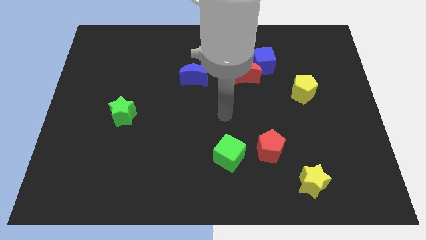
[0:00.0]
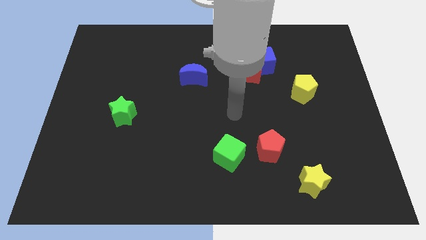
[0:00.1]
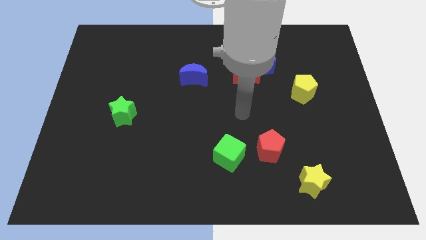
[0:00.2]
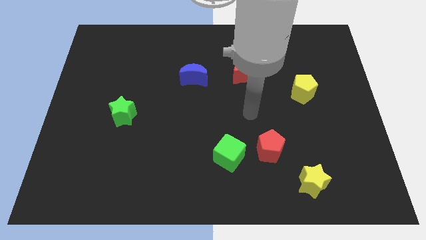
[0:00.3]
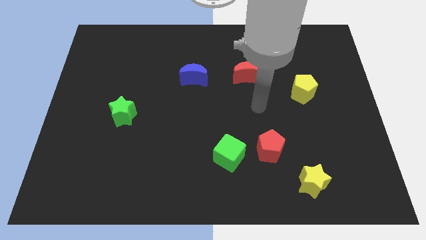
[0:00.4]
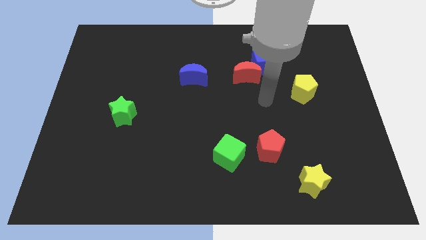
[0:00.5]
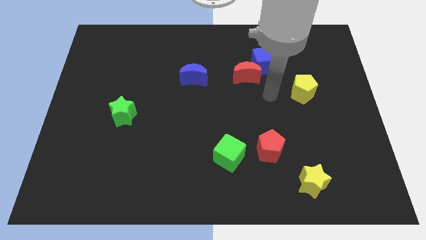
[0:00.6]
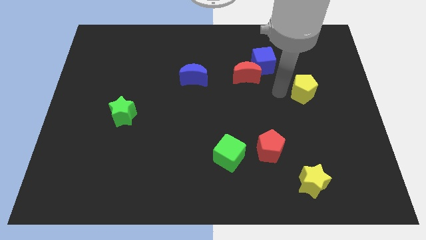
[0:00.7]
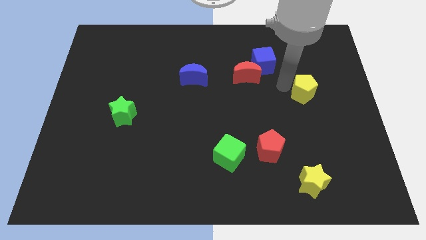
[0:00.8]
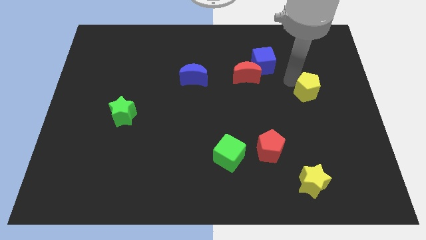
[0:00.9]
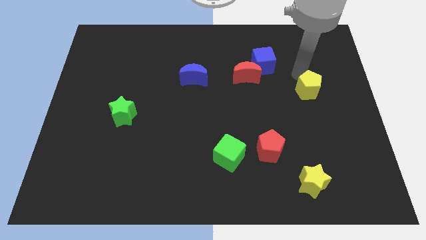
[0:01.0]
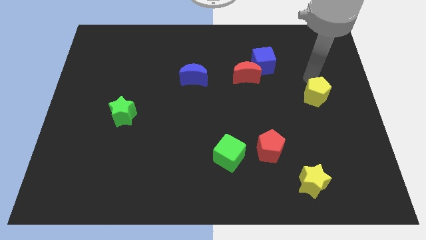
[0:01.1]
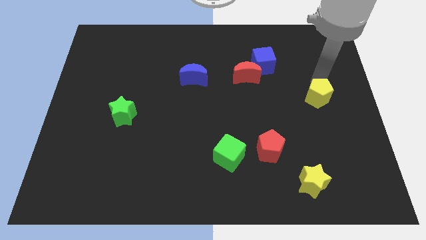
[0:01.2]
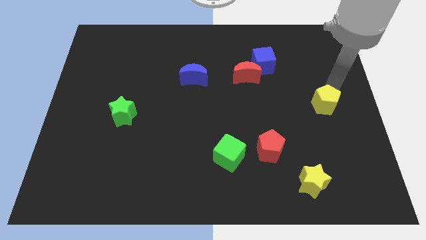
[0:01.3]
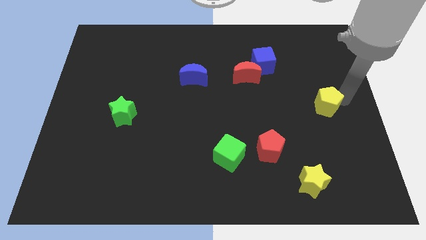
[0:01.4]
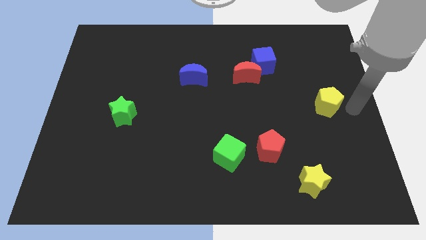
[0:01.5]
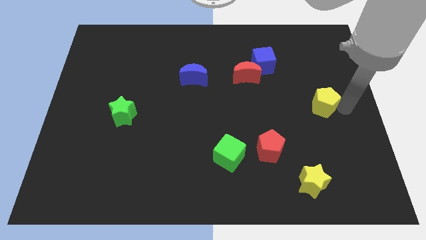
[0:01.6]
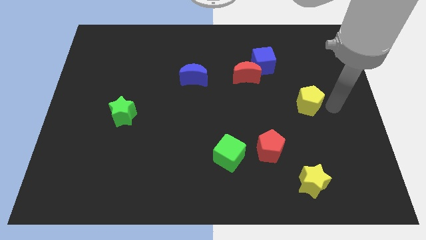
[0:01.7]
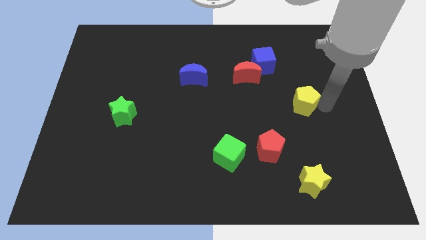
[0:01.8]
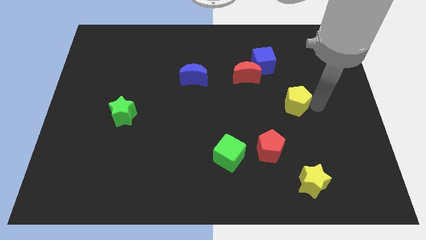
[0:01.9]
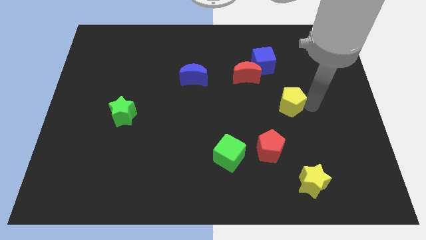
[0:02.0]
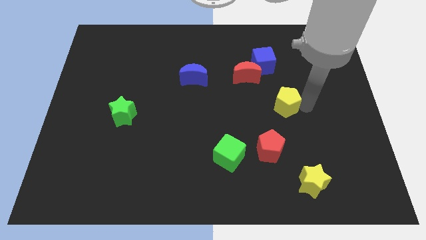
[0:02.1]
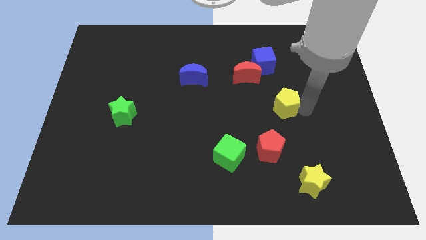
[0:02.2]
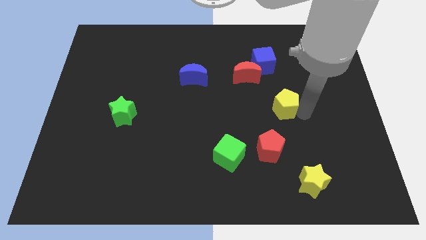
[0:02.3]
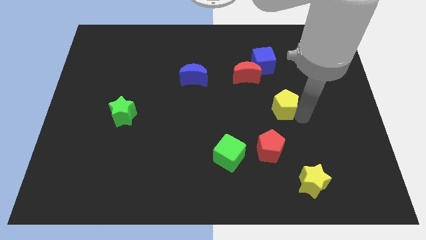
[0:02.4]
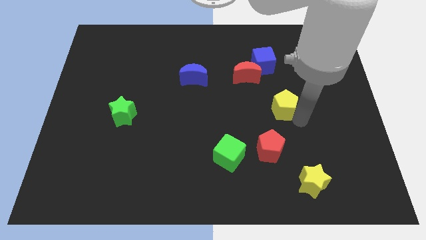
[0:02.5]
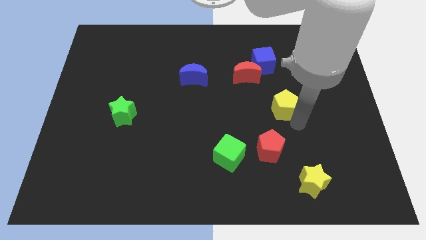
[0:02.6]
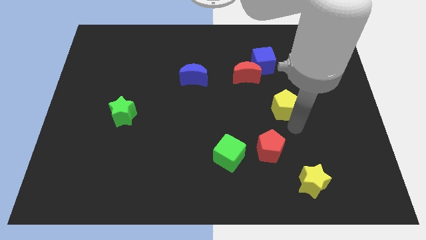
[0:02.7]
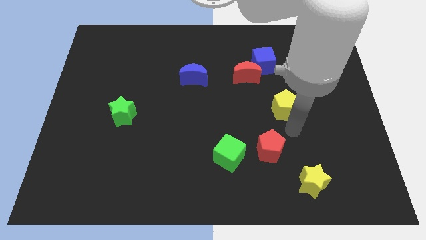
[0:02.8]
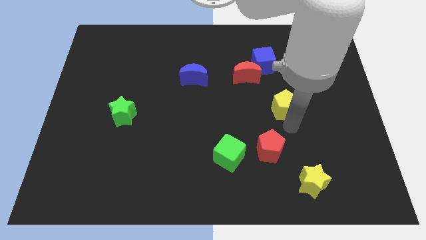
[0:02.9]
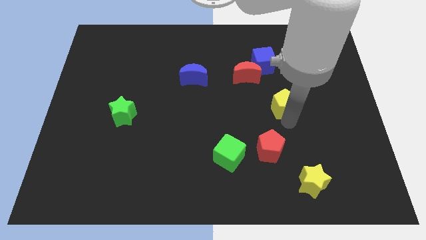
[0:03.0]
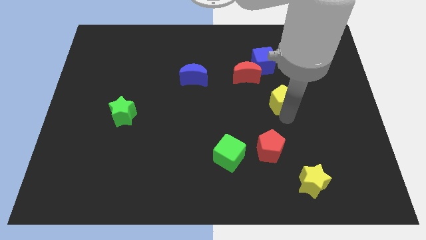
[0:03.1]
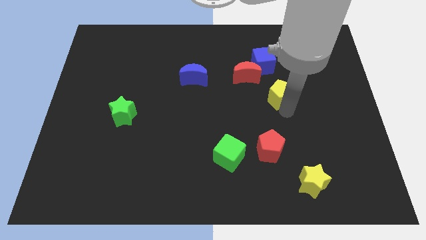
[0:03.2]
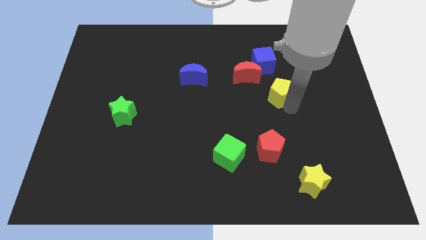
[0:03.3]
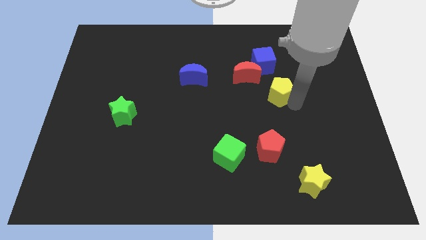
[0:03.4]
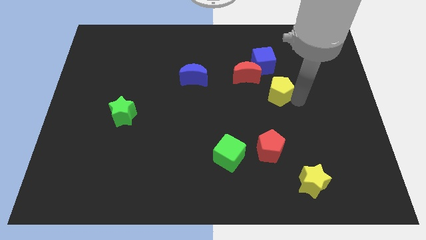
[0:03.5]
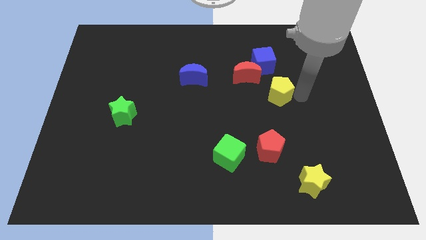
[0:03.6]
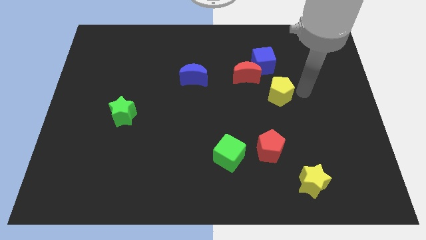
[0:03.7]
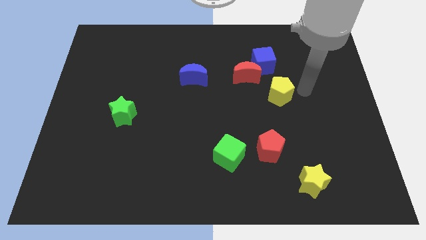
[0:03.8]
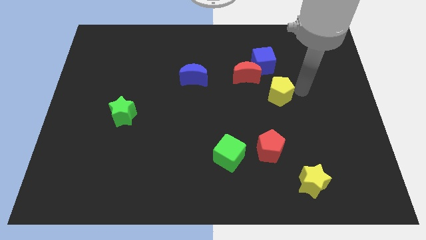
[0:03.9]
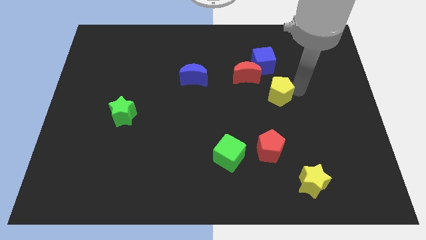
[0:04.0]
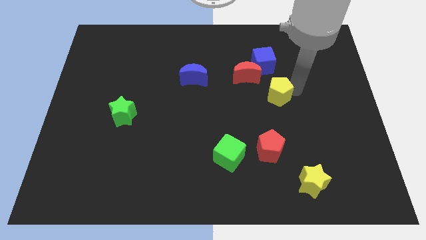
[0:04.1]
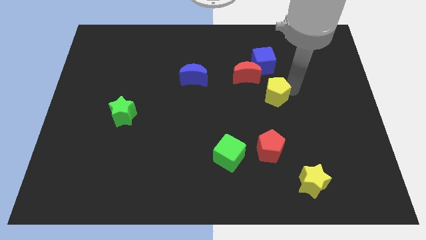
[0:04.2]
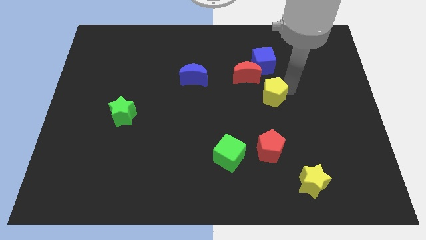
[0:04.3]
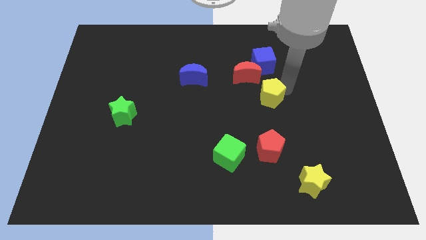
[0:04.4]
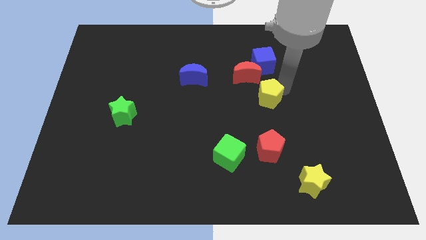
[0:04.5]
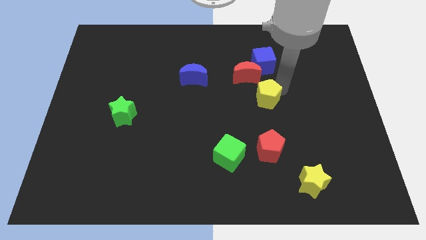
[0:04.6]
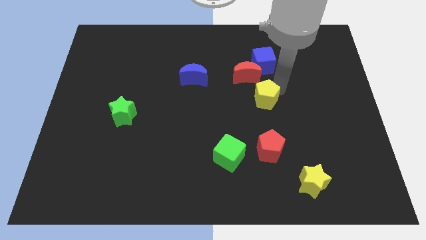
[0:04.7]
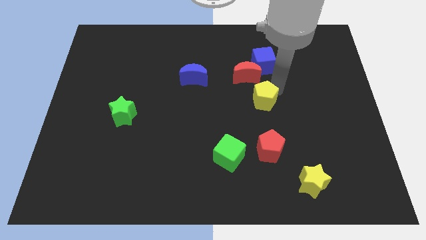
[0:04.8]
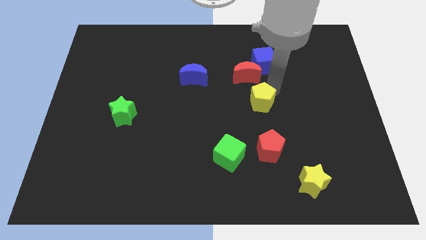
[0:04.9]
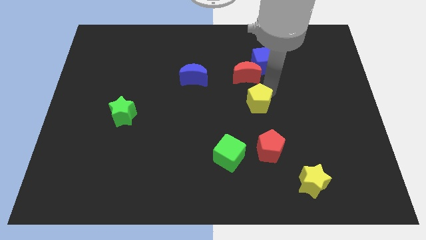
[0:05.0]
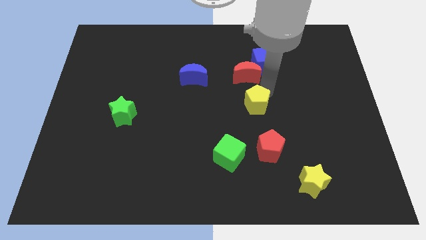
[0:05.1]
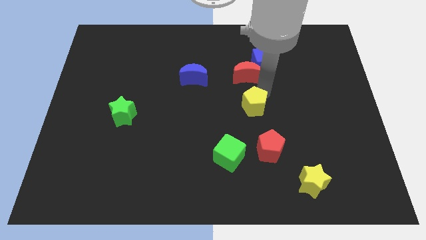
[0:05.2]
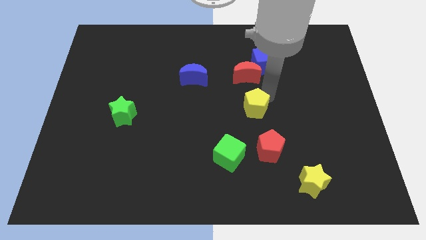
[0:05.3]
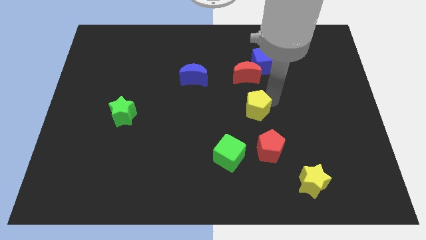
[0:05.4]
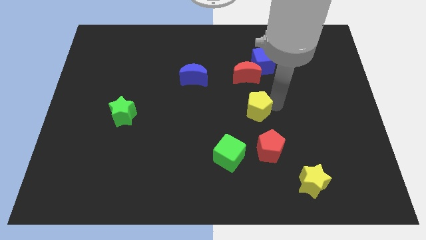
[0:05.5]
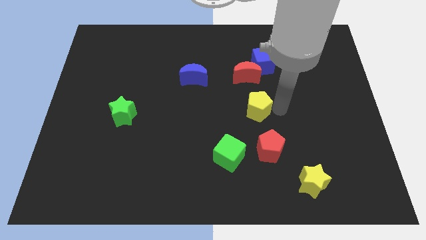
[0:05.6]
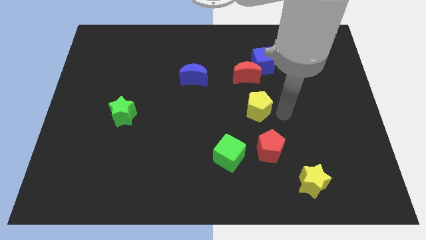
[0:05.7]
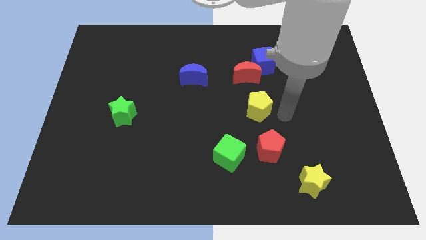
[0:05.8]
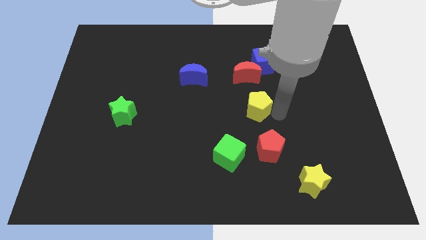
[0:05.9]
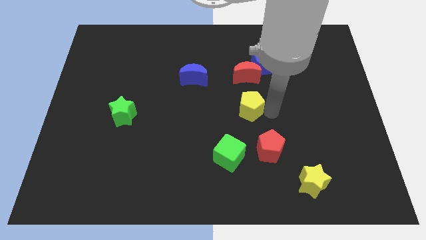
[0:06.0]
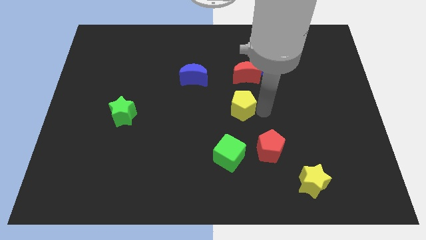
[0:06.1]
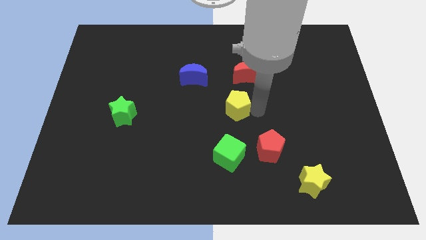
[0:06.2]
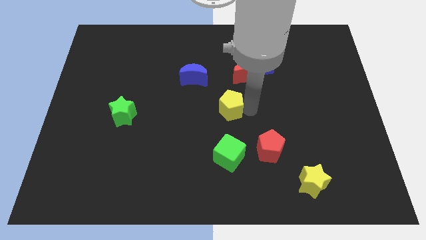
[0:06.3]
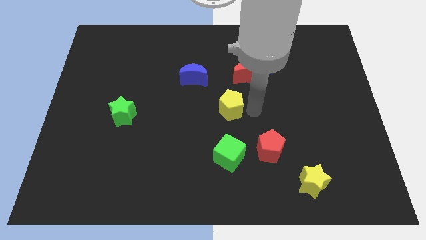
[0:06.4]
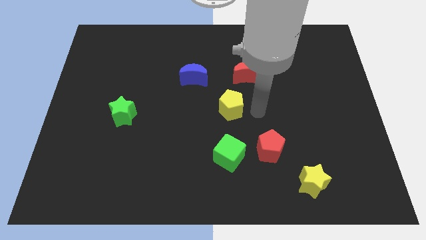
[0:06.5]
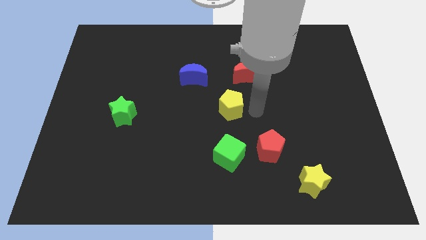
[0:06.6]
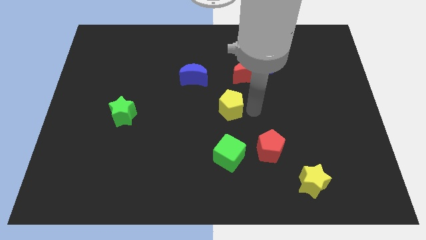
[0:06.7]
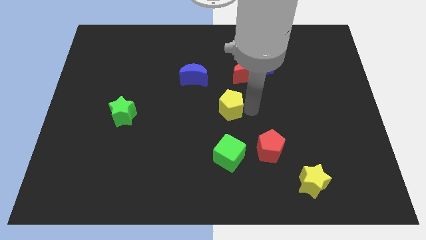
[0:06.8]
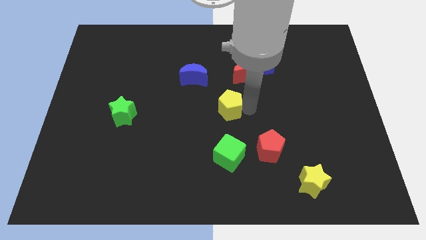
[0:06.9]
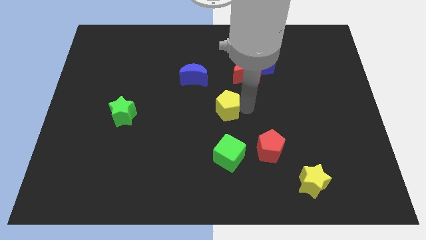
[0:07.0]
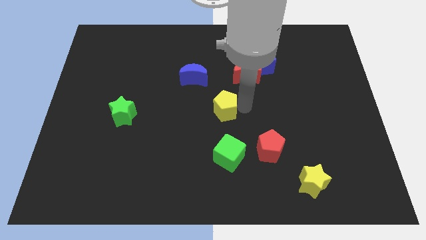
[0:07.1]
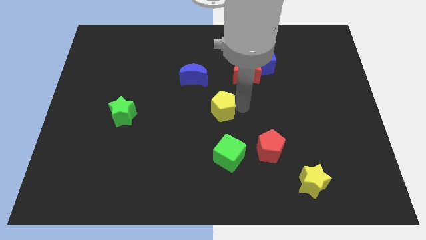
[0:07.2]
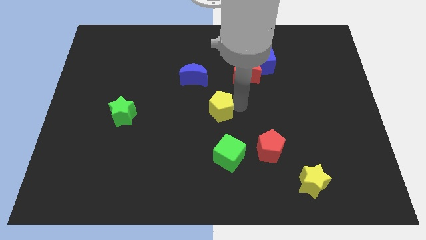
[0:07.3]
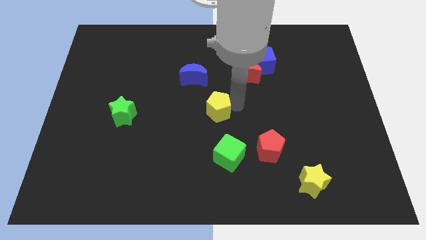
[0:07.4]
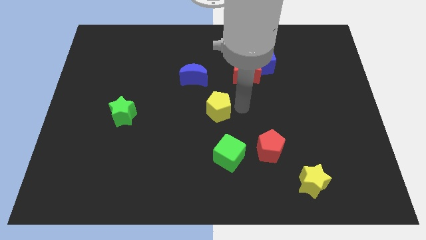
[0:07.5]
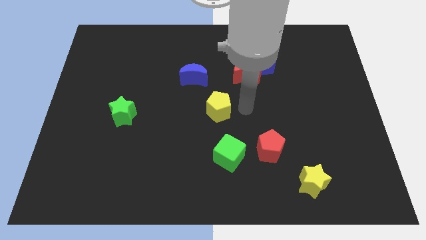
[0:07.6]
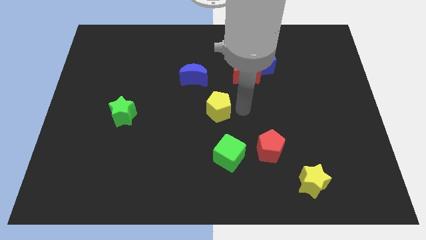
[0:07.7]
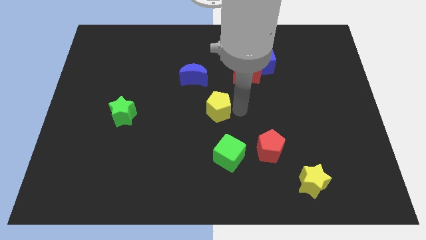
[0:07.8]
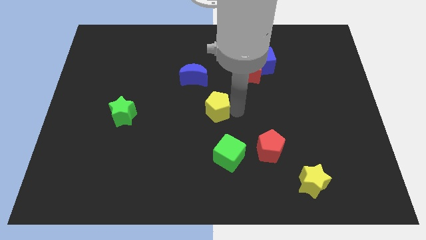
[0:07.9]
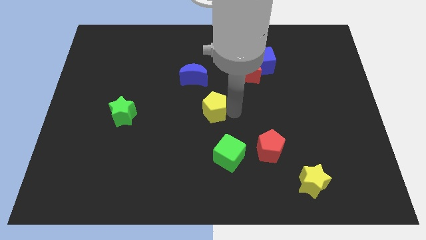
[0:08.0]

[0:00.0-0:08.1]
push the yellow pentagon below the blue moon

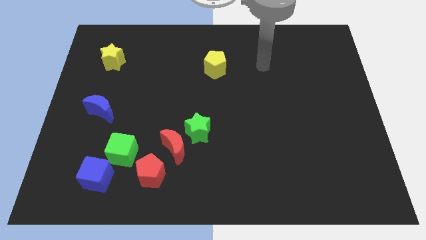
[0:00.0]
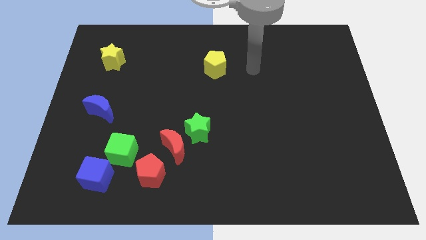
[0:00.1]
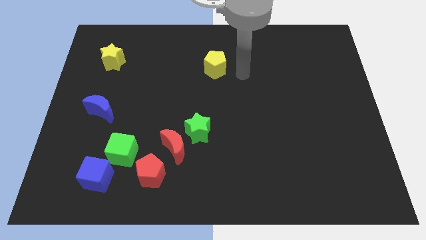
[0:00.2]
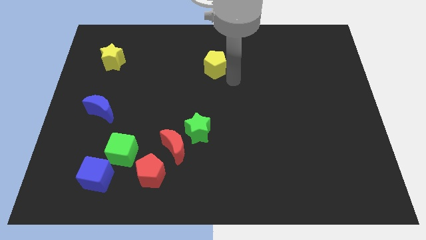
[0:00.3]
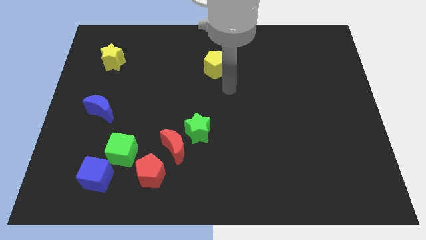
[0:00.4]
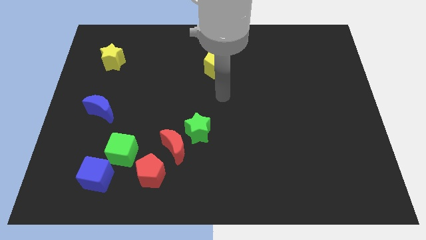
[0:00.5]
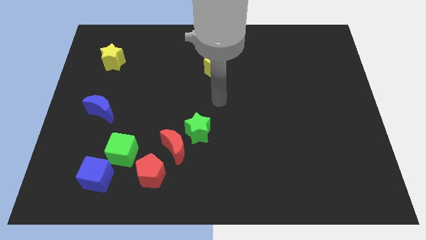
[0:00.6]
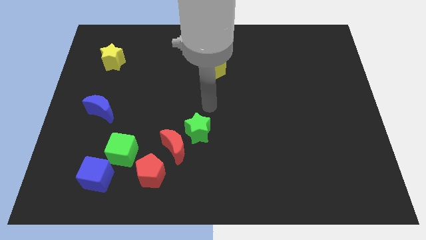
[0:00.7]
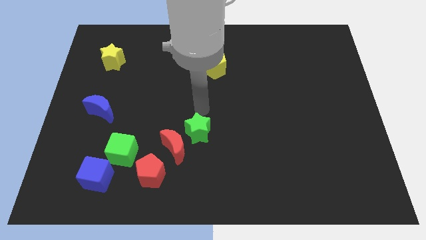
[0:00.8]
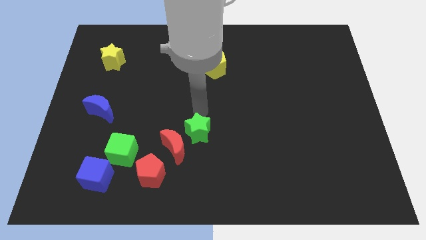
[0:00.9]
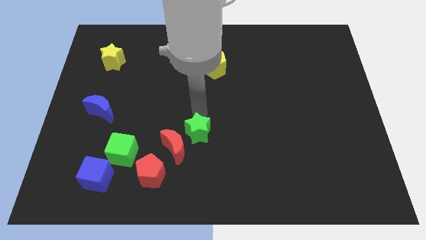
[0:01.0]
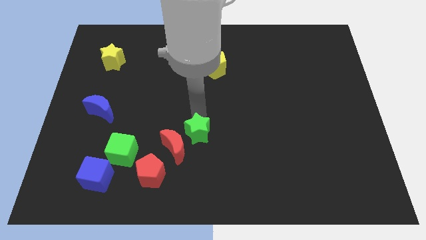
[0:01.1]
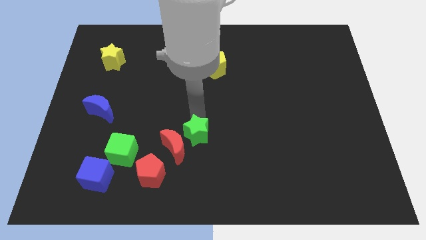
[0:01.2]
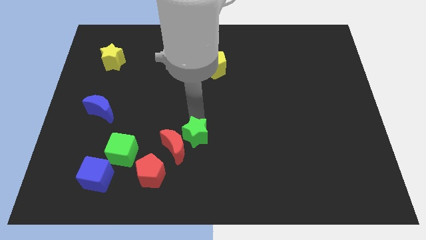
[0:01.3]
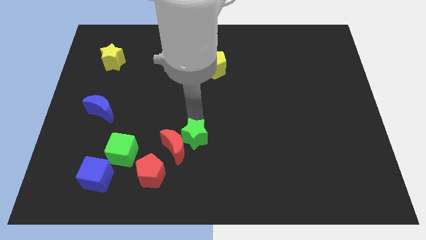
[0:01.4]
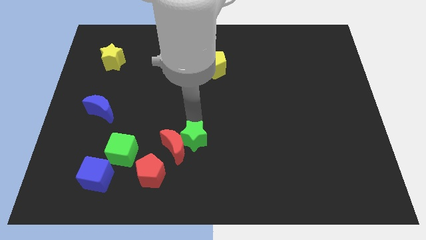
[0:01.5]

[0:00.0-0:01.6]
slide the green star to the right side of the green cube
